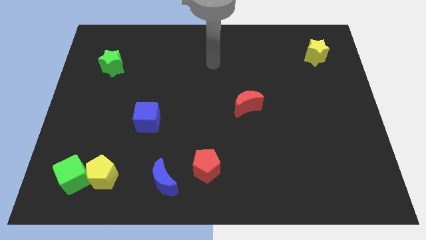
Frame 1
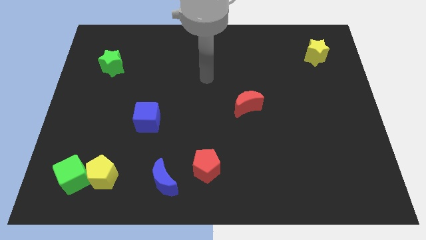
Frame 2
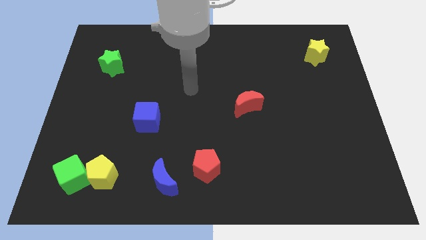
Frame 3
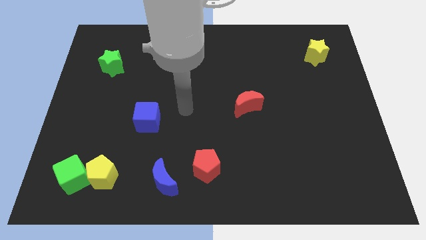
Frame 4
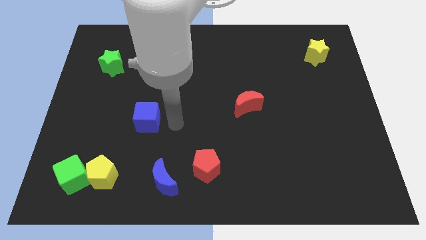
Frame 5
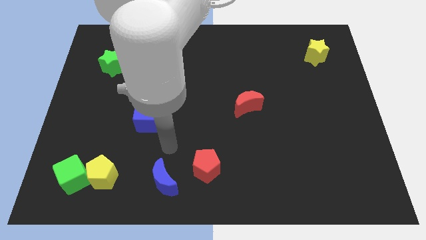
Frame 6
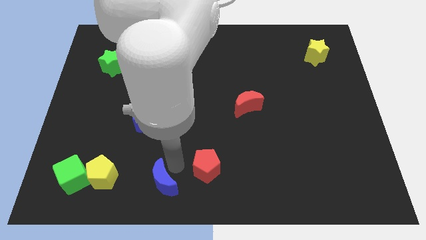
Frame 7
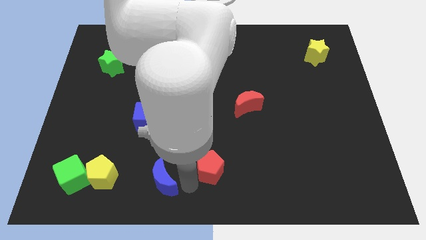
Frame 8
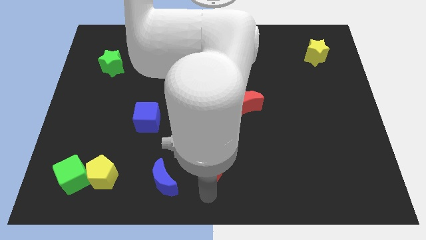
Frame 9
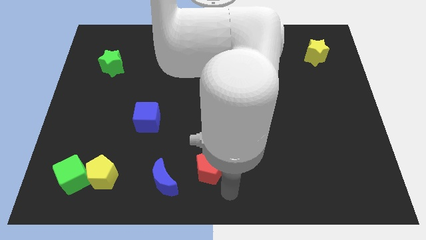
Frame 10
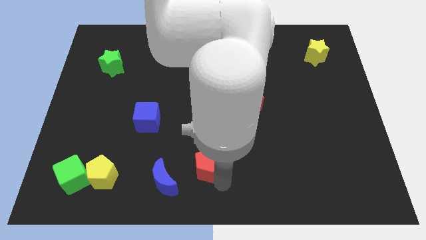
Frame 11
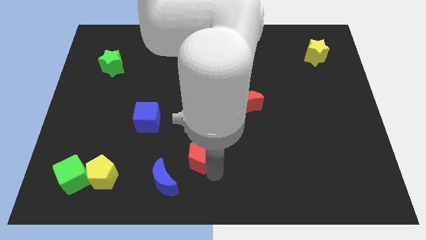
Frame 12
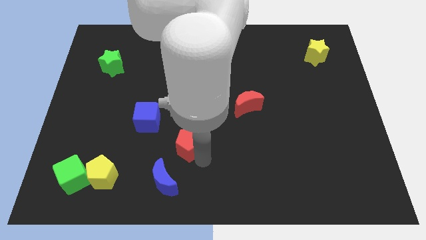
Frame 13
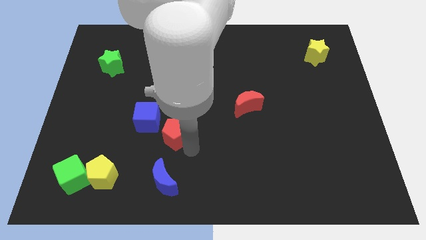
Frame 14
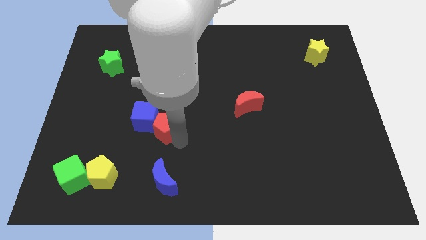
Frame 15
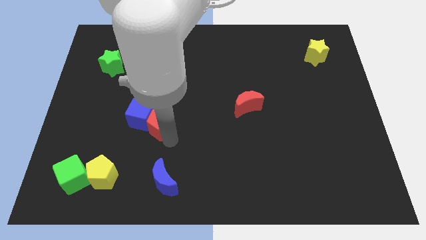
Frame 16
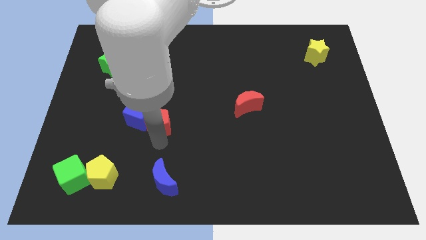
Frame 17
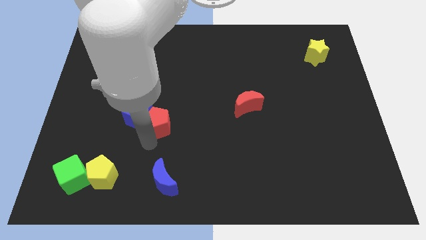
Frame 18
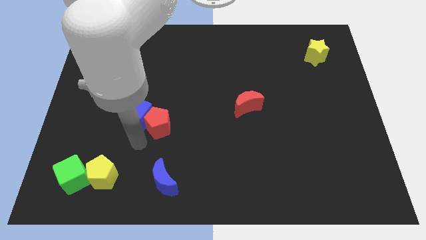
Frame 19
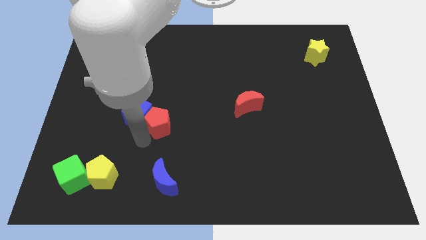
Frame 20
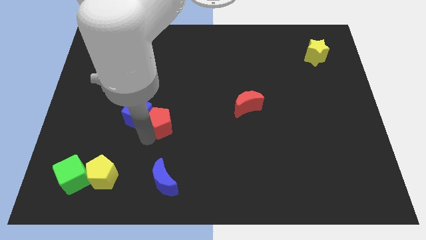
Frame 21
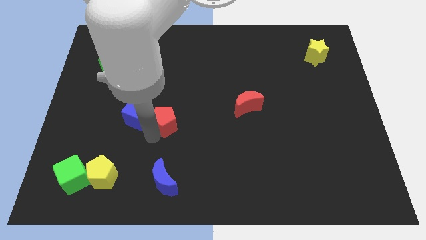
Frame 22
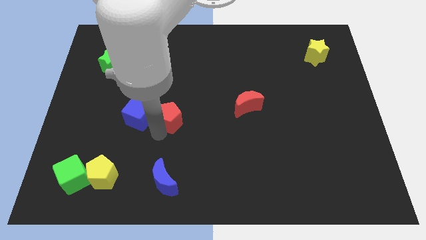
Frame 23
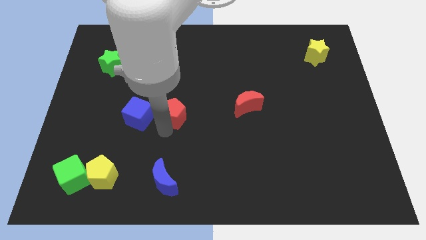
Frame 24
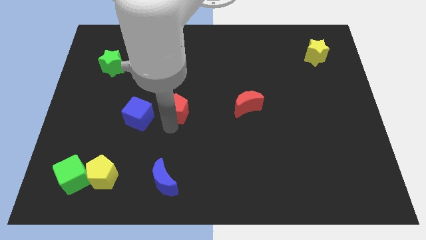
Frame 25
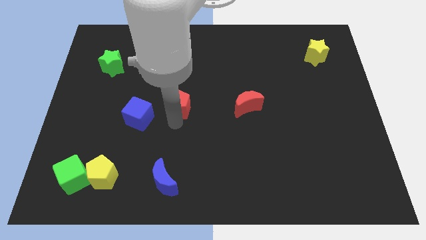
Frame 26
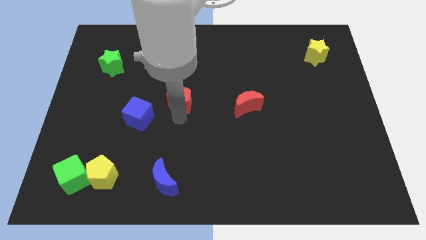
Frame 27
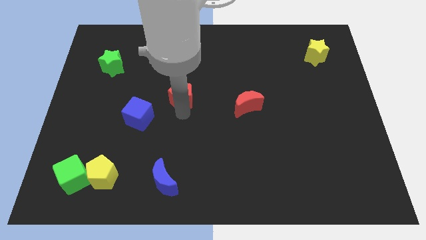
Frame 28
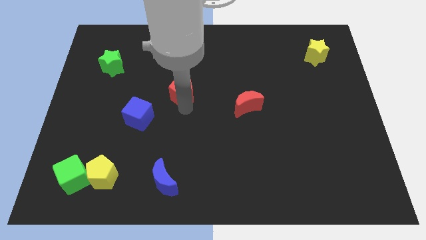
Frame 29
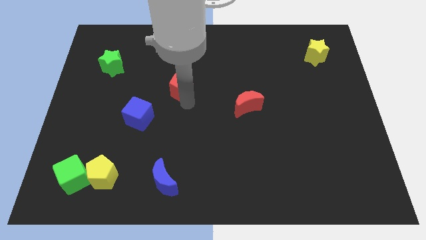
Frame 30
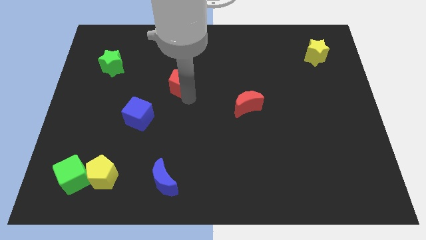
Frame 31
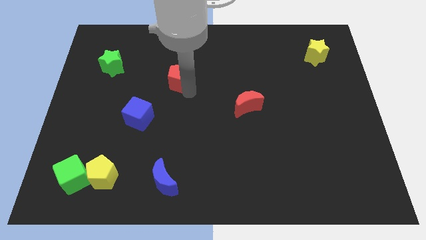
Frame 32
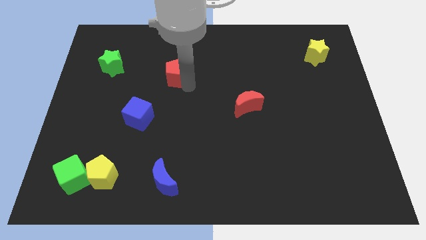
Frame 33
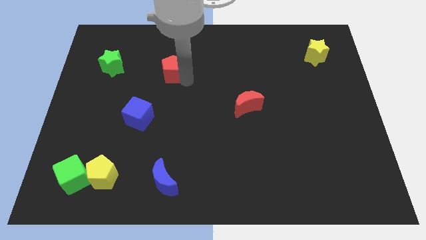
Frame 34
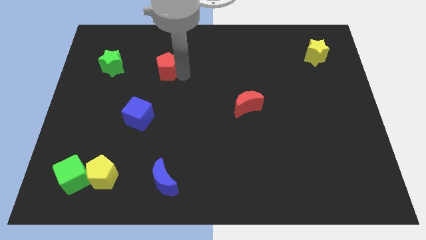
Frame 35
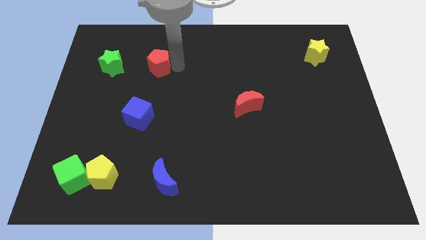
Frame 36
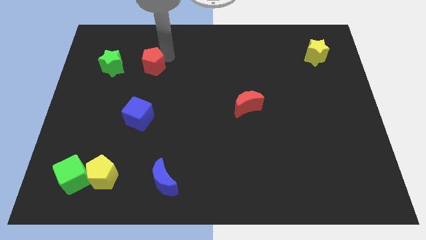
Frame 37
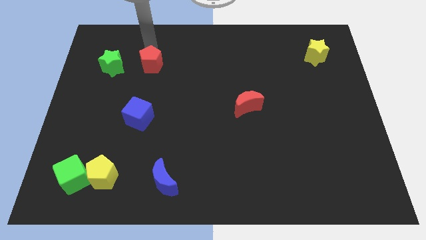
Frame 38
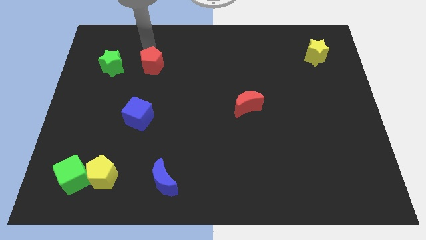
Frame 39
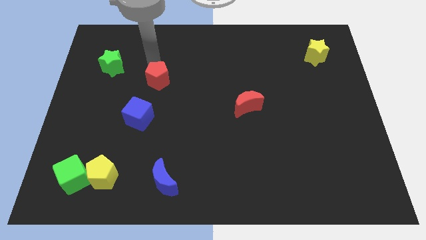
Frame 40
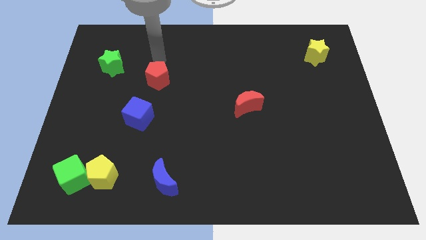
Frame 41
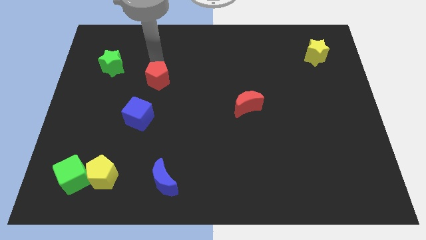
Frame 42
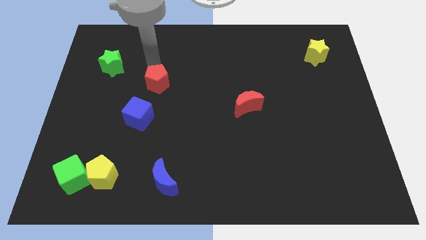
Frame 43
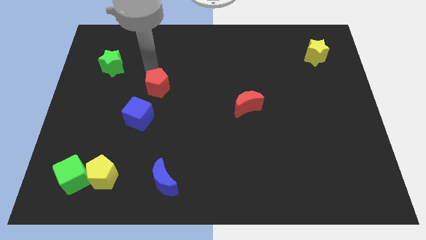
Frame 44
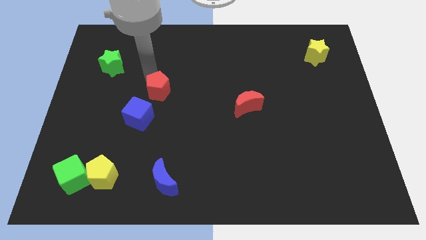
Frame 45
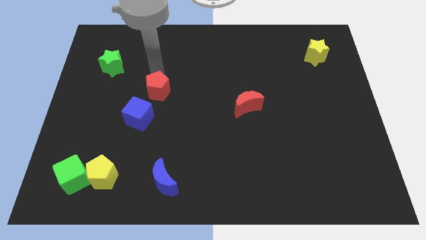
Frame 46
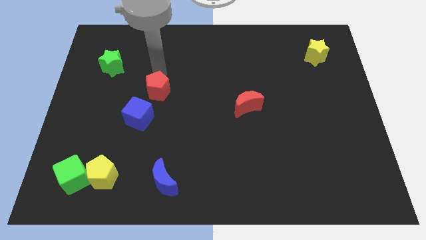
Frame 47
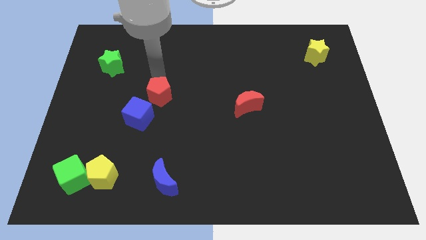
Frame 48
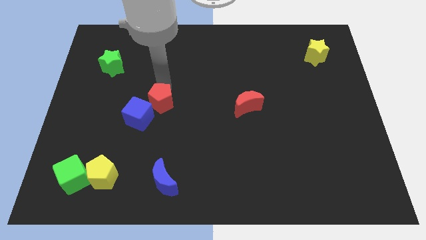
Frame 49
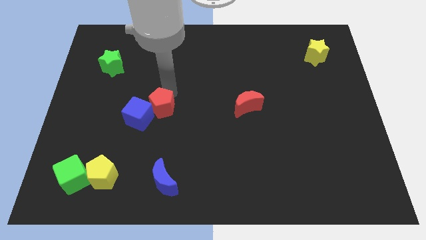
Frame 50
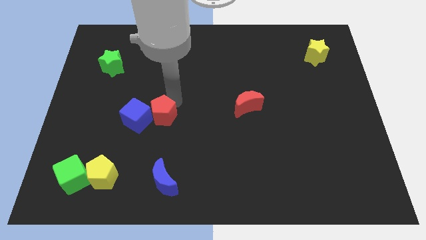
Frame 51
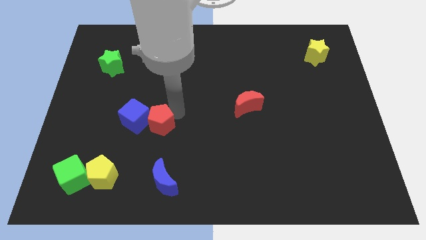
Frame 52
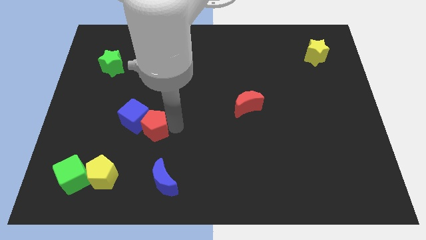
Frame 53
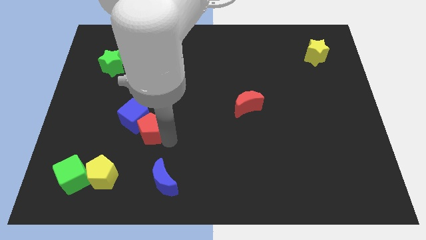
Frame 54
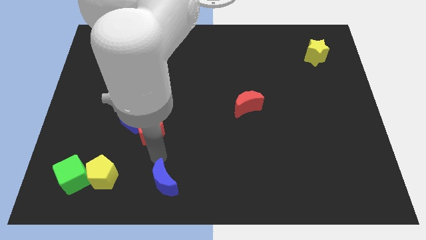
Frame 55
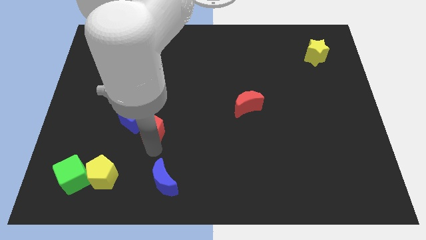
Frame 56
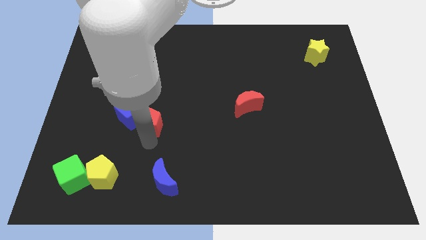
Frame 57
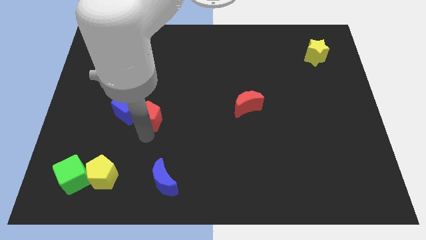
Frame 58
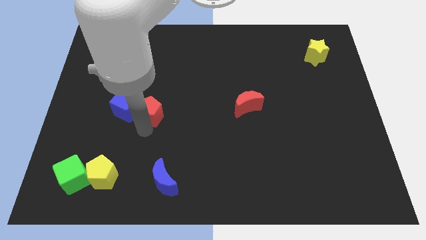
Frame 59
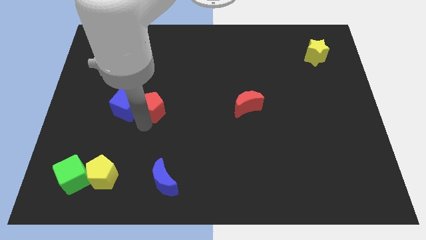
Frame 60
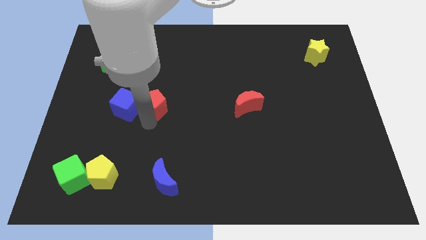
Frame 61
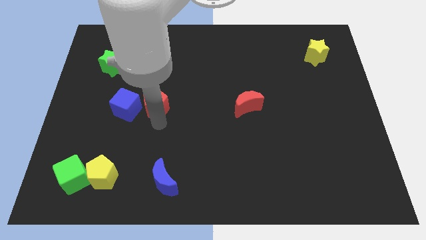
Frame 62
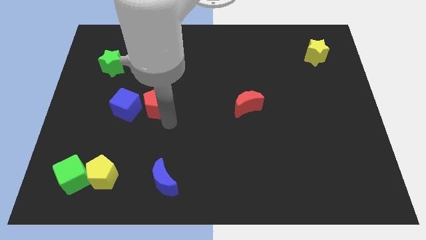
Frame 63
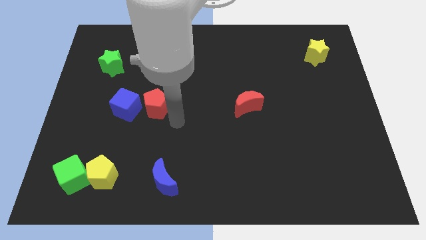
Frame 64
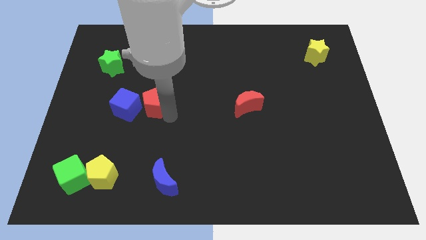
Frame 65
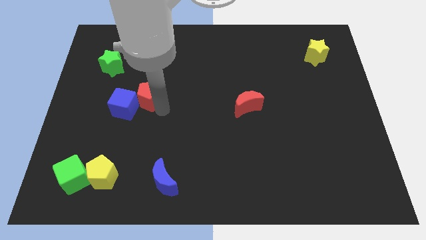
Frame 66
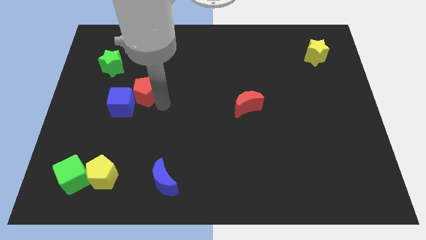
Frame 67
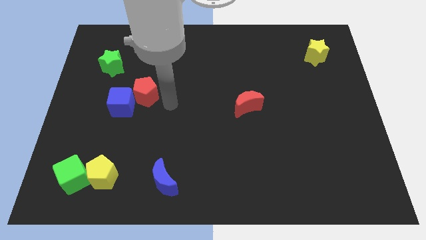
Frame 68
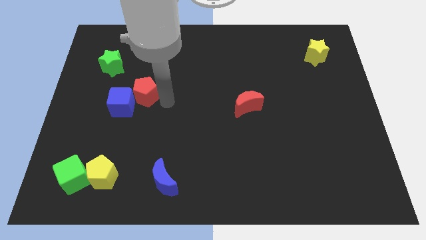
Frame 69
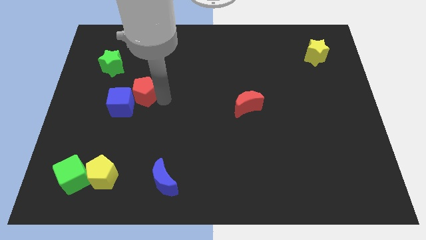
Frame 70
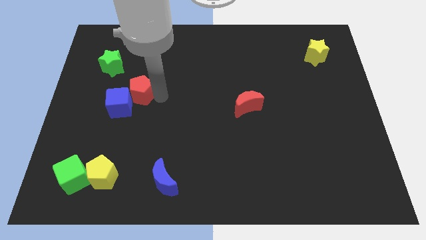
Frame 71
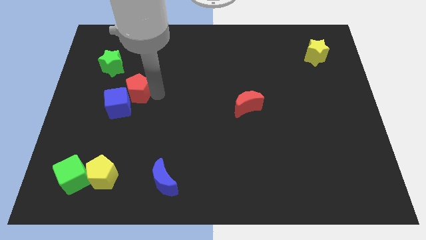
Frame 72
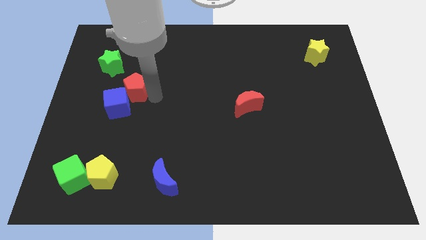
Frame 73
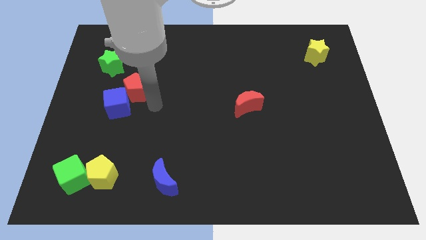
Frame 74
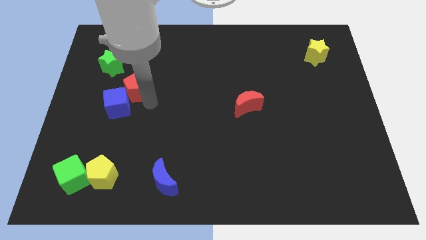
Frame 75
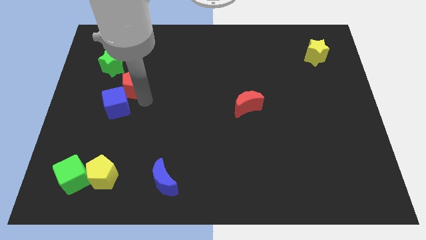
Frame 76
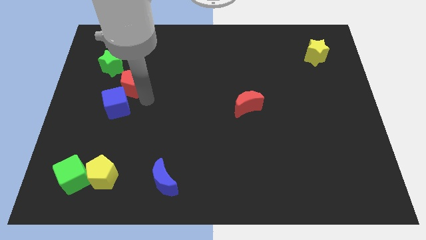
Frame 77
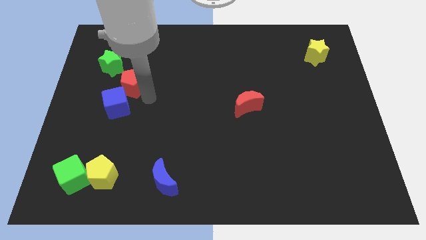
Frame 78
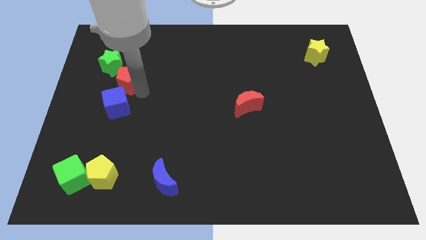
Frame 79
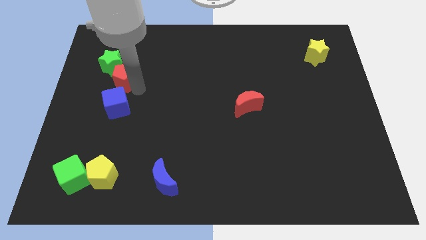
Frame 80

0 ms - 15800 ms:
push the red pentagon towards the green star
